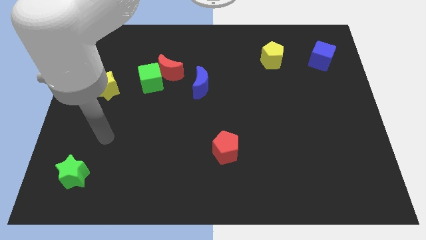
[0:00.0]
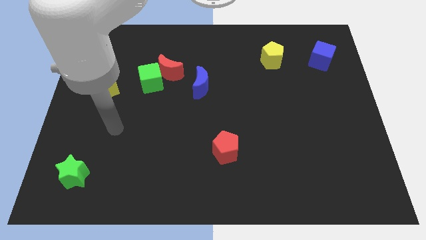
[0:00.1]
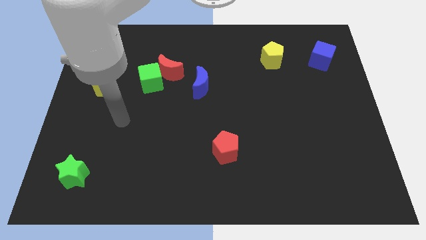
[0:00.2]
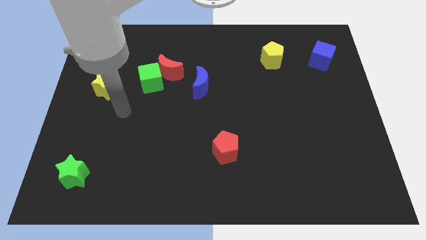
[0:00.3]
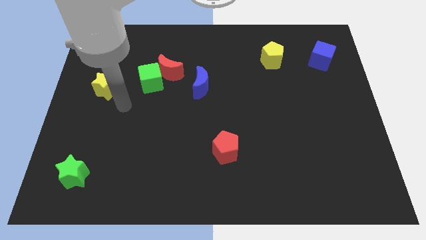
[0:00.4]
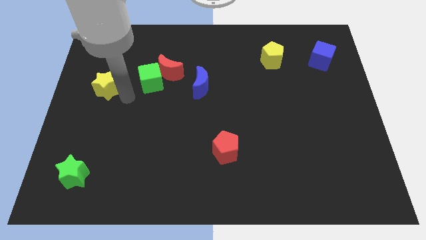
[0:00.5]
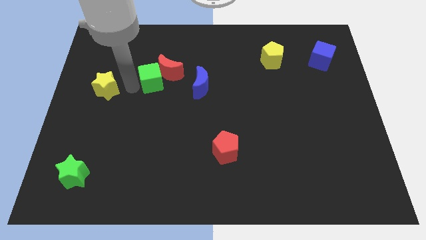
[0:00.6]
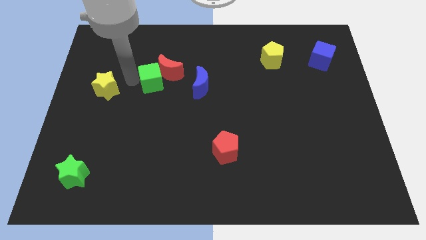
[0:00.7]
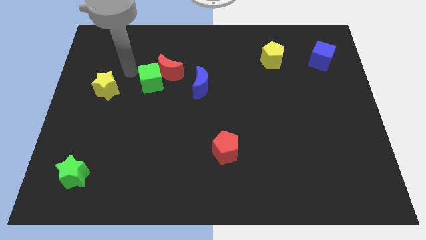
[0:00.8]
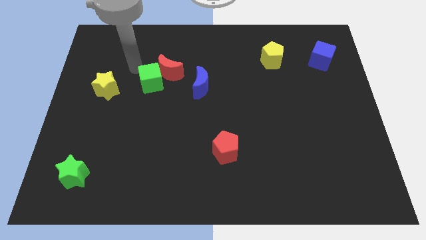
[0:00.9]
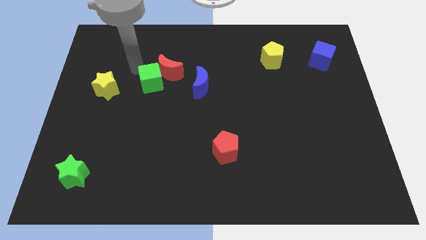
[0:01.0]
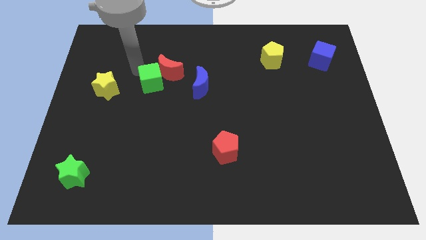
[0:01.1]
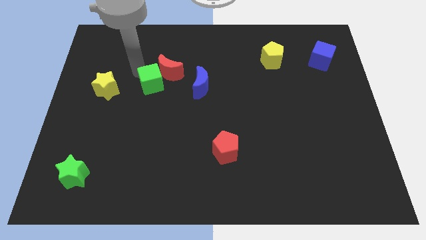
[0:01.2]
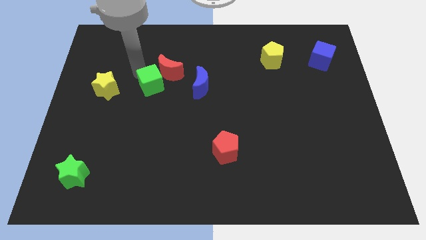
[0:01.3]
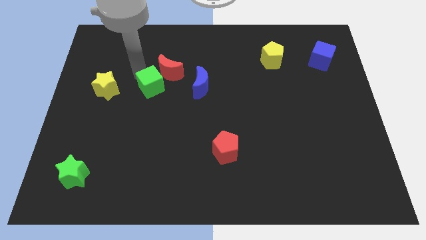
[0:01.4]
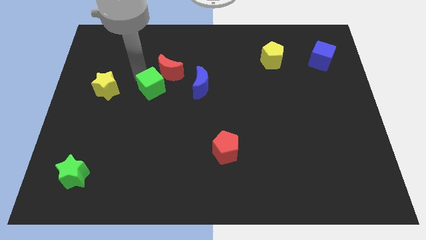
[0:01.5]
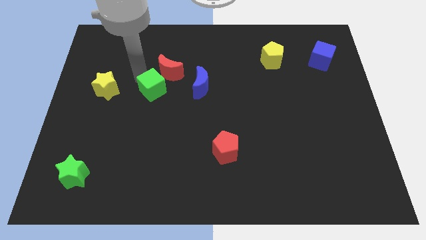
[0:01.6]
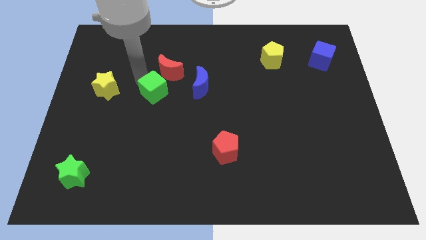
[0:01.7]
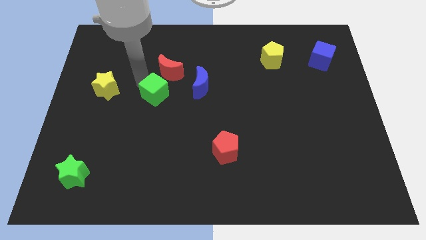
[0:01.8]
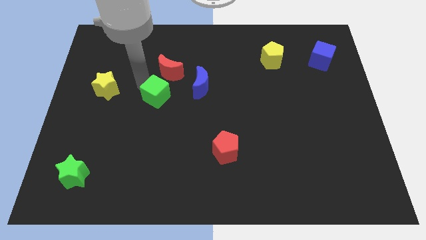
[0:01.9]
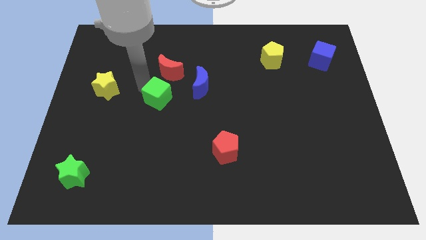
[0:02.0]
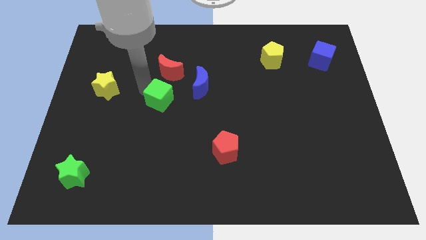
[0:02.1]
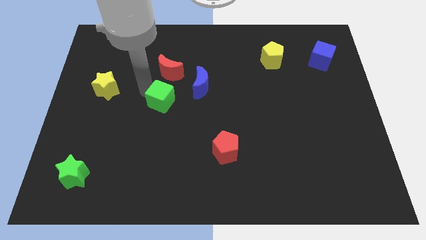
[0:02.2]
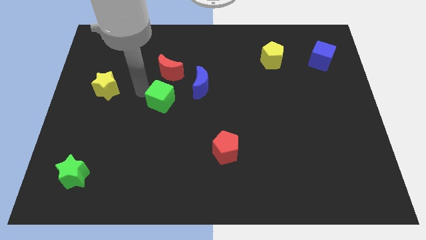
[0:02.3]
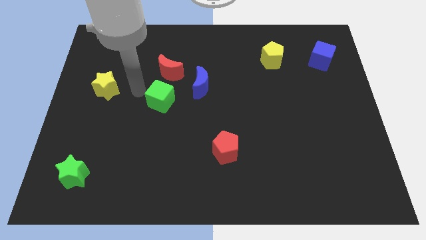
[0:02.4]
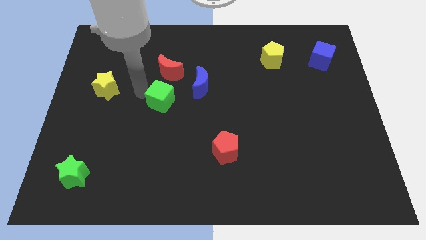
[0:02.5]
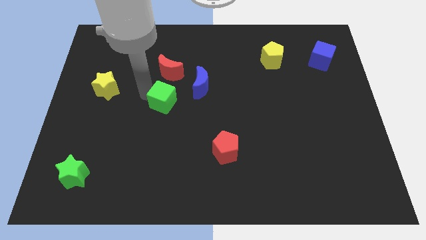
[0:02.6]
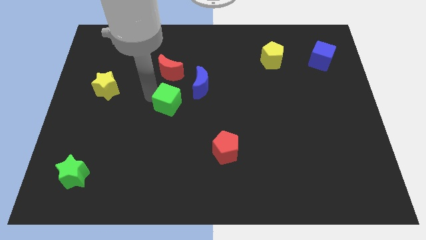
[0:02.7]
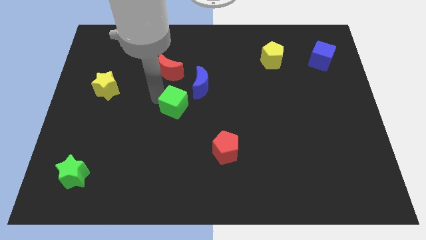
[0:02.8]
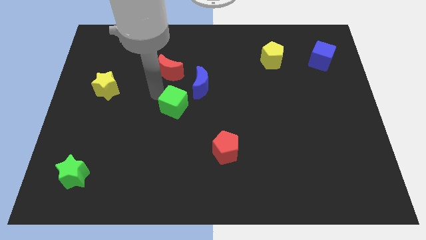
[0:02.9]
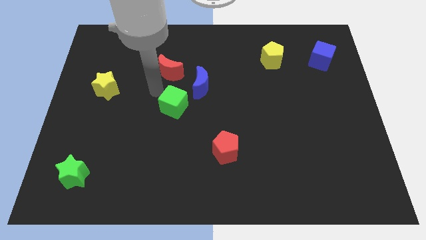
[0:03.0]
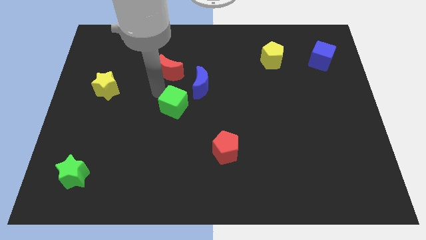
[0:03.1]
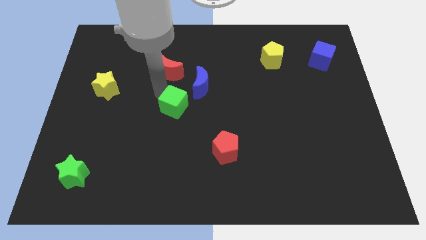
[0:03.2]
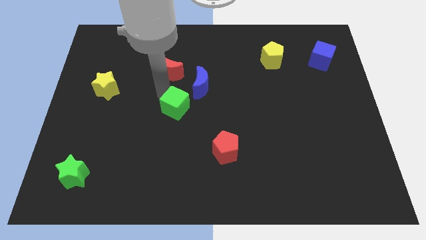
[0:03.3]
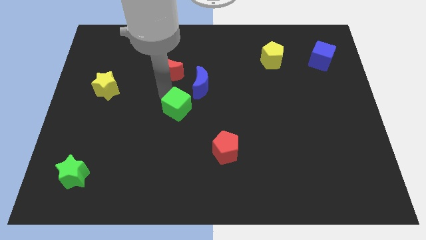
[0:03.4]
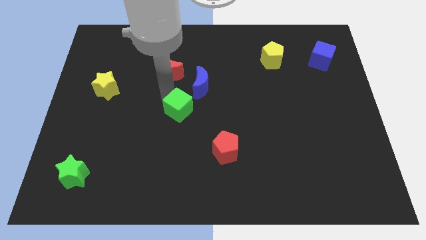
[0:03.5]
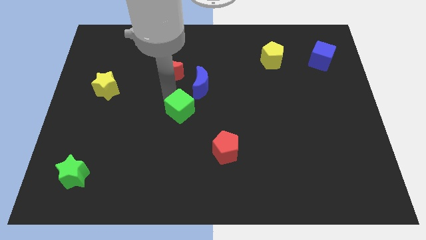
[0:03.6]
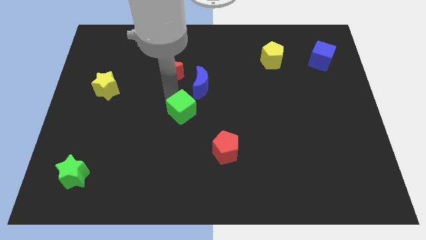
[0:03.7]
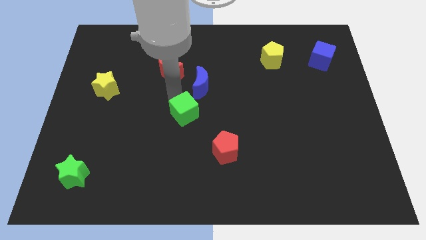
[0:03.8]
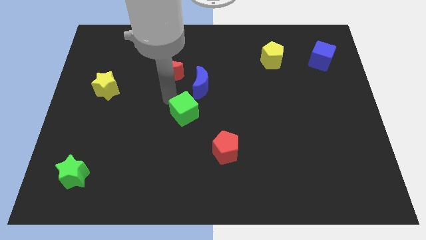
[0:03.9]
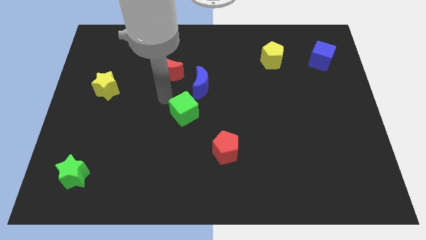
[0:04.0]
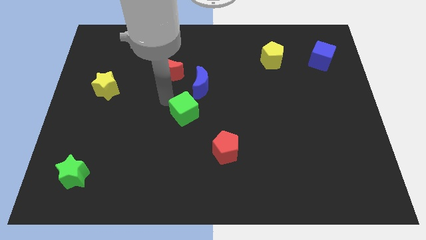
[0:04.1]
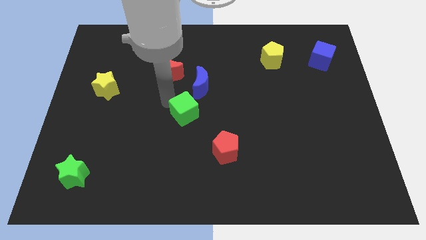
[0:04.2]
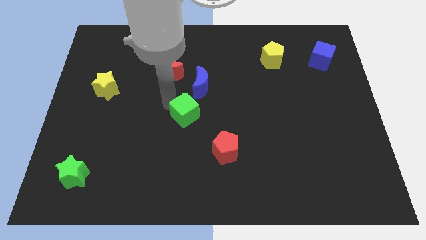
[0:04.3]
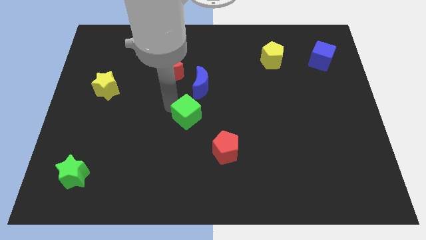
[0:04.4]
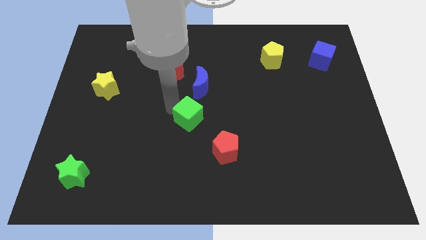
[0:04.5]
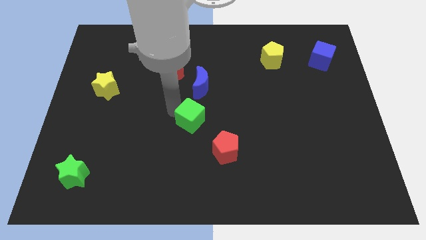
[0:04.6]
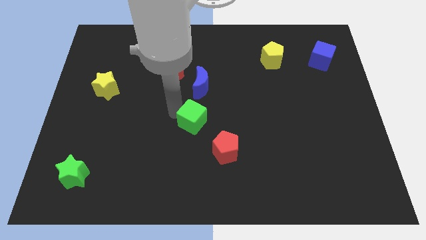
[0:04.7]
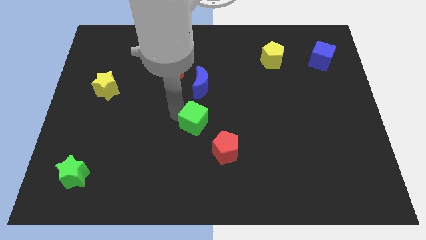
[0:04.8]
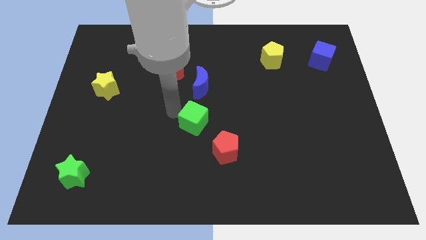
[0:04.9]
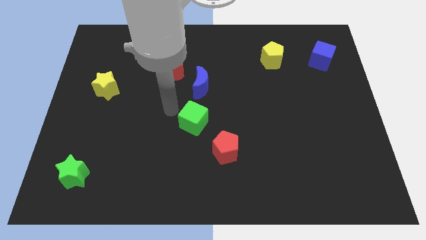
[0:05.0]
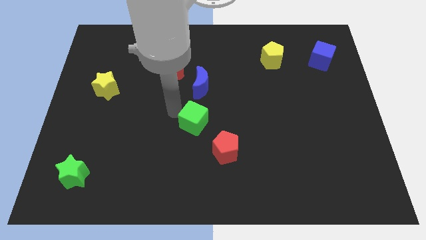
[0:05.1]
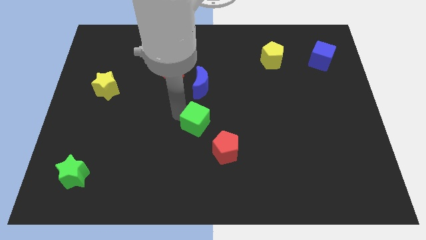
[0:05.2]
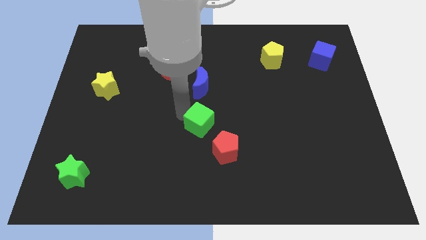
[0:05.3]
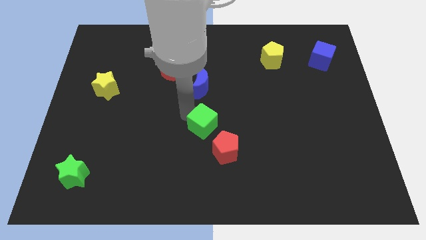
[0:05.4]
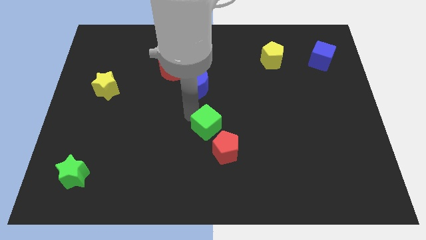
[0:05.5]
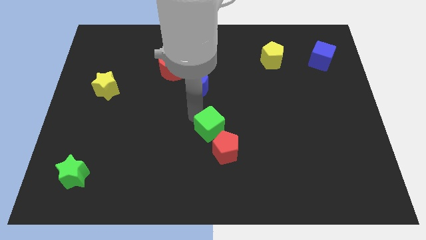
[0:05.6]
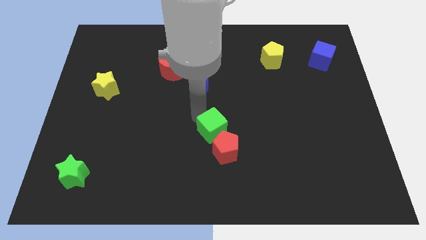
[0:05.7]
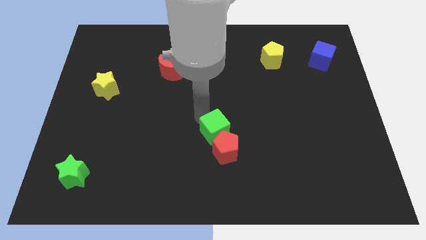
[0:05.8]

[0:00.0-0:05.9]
put the green cube close to the red pentagon

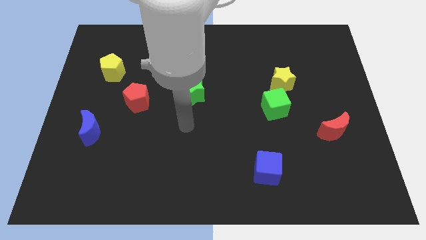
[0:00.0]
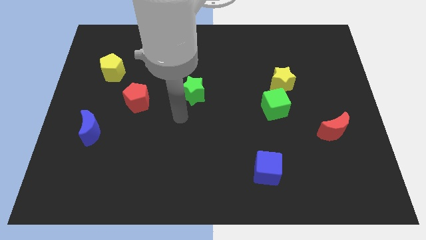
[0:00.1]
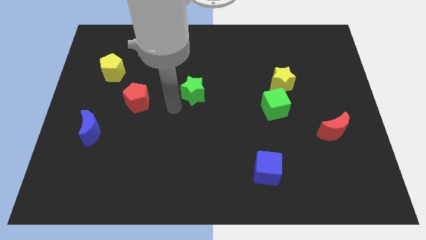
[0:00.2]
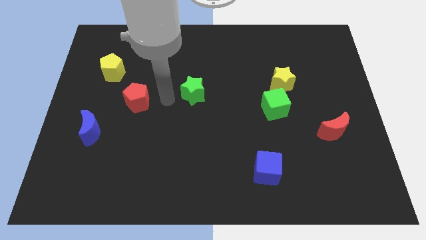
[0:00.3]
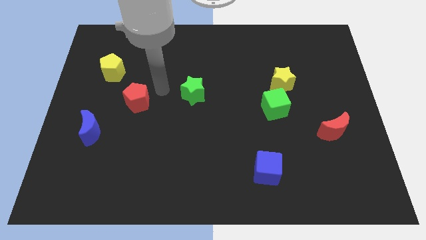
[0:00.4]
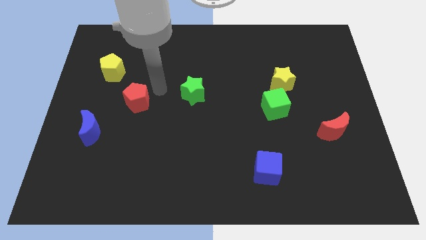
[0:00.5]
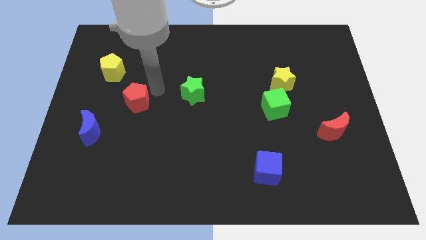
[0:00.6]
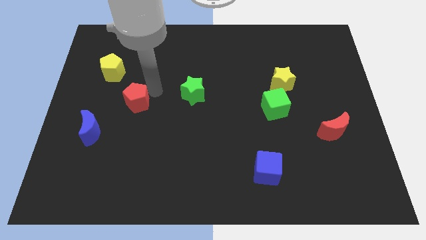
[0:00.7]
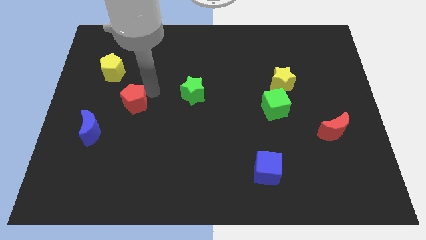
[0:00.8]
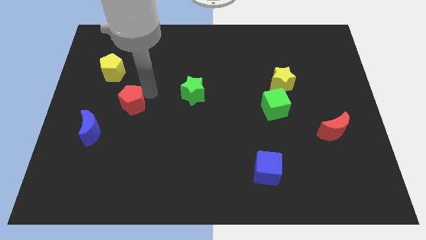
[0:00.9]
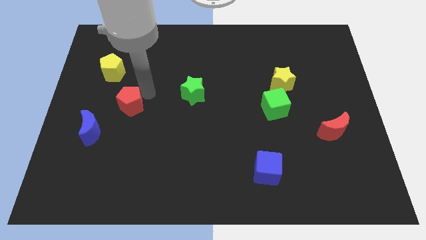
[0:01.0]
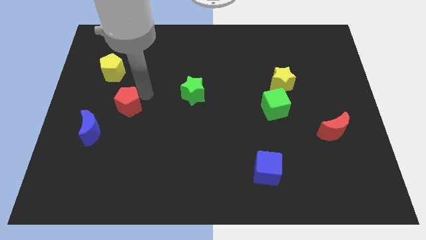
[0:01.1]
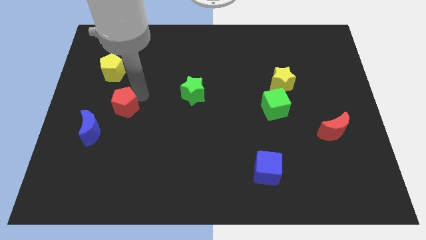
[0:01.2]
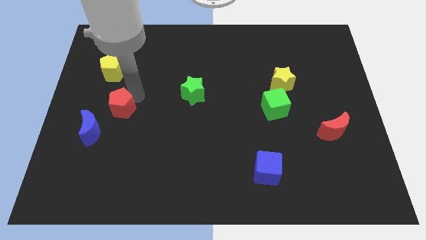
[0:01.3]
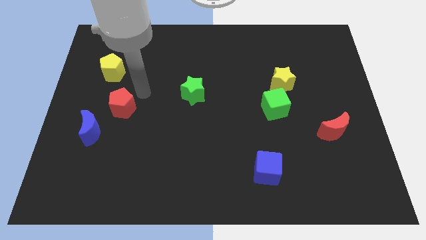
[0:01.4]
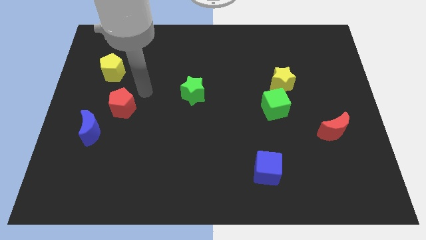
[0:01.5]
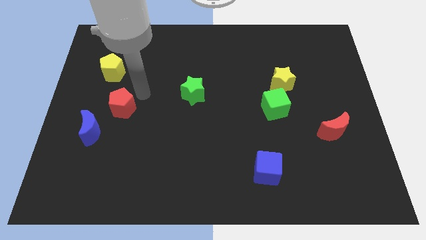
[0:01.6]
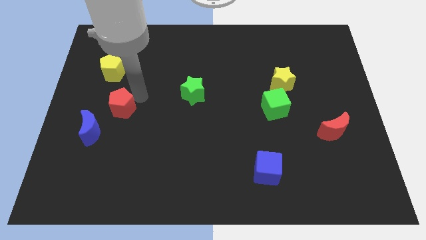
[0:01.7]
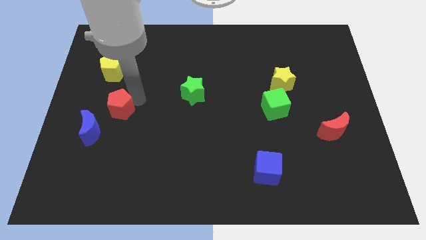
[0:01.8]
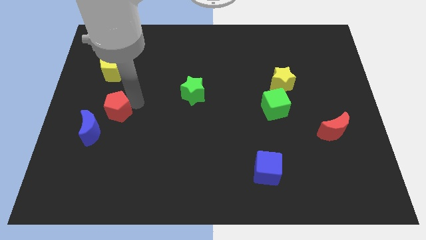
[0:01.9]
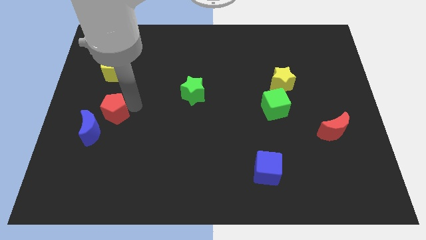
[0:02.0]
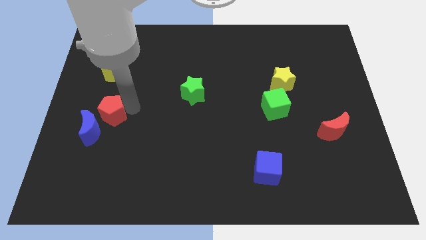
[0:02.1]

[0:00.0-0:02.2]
push the red pentagon to the blue moon
